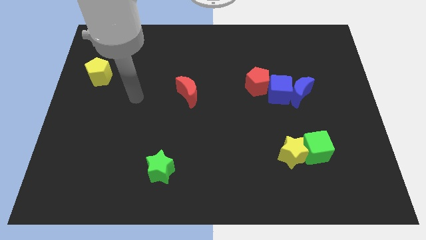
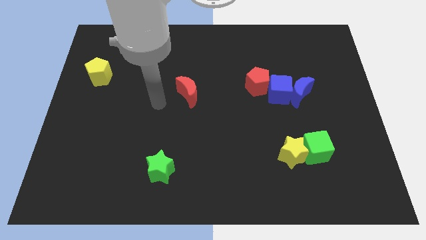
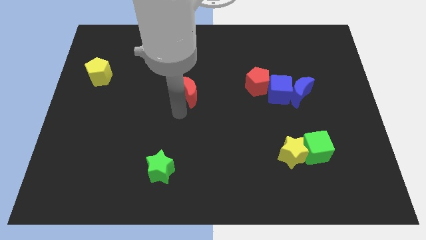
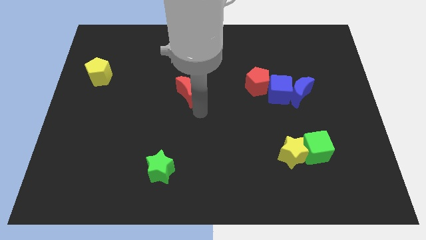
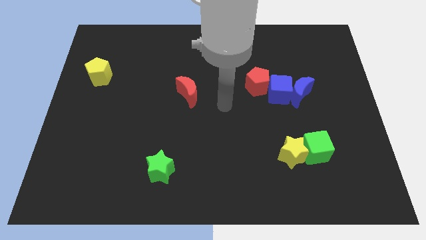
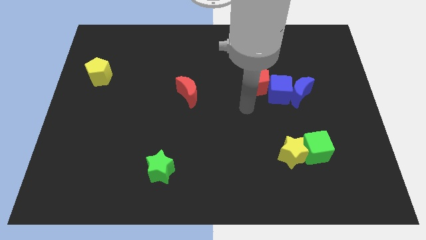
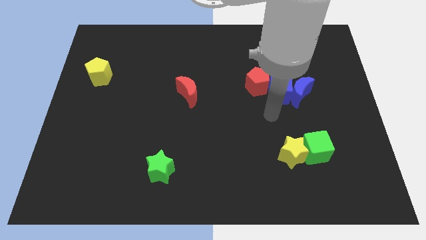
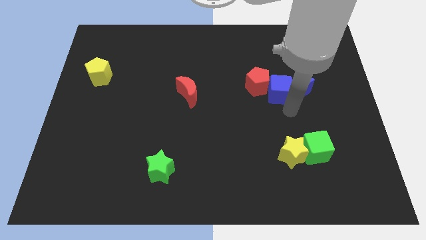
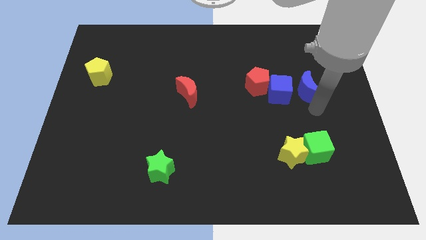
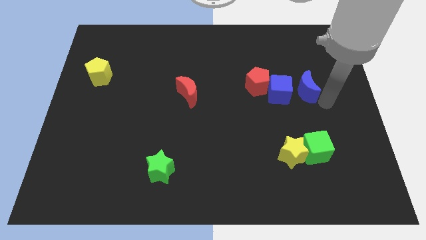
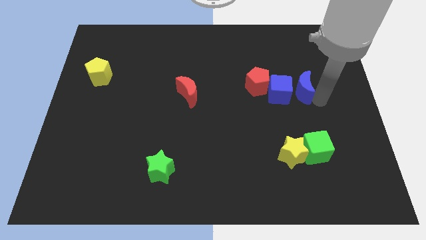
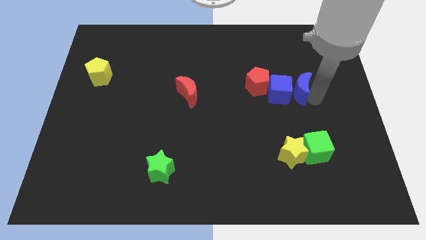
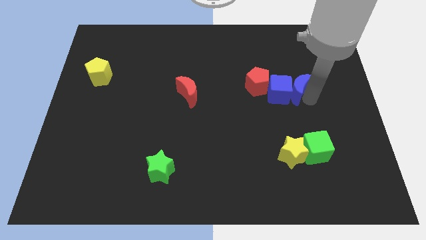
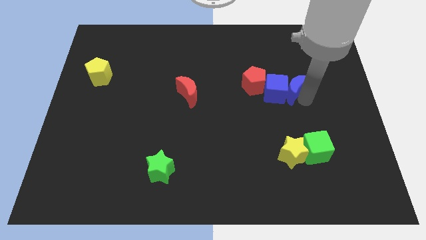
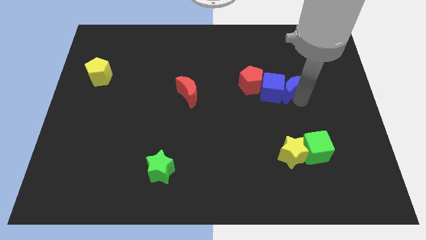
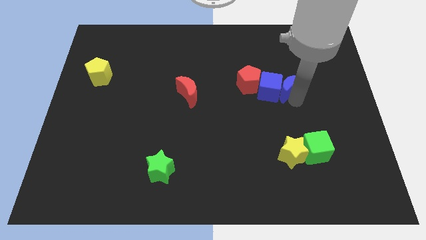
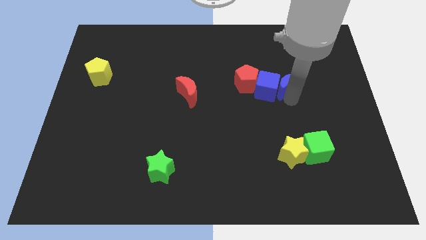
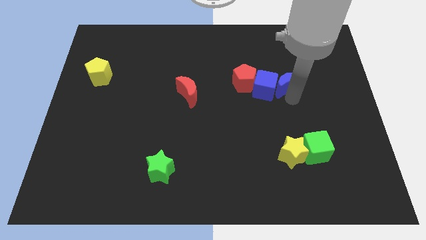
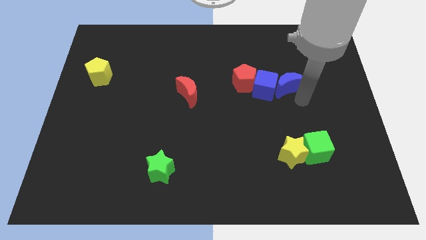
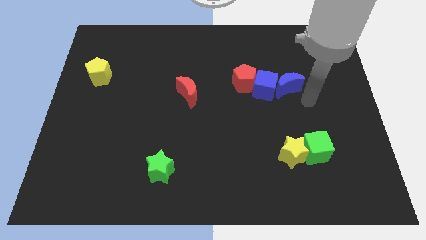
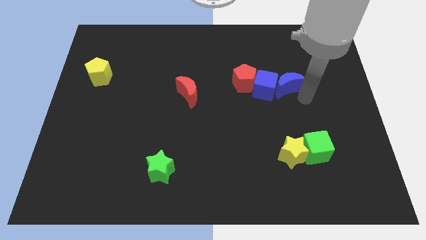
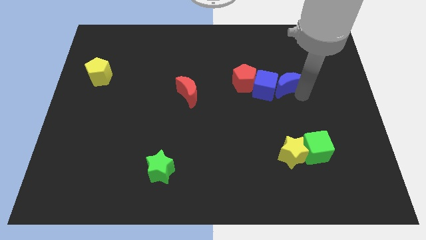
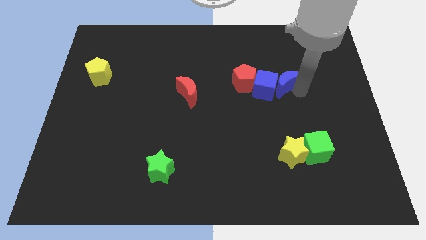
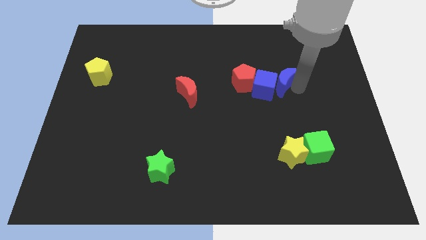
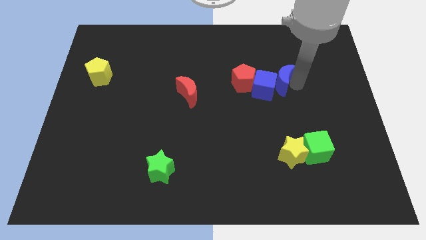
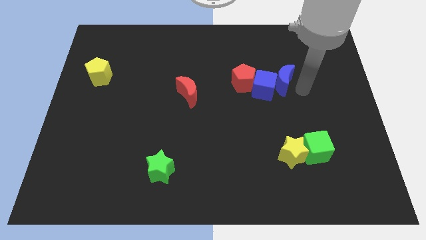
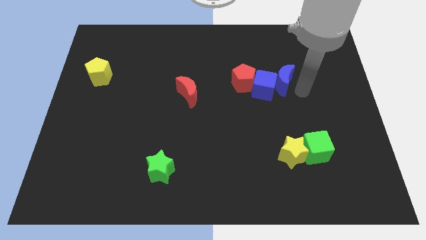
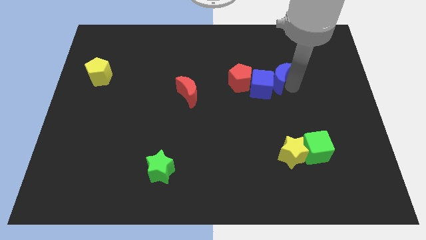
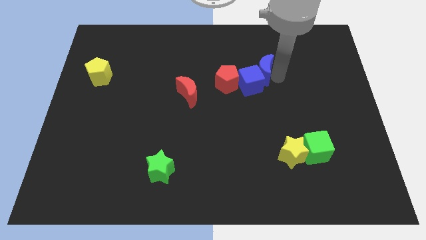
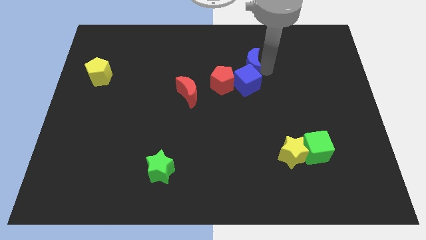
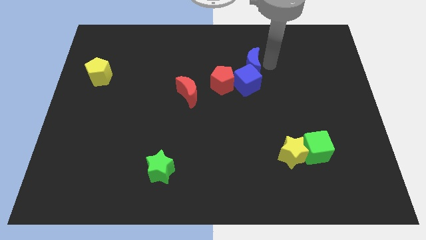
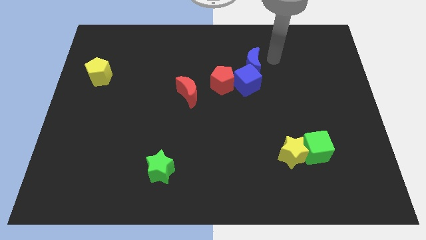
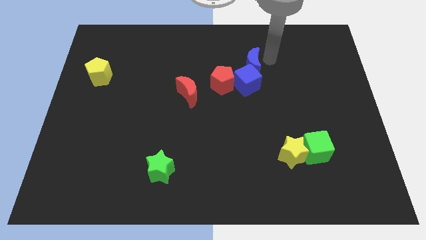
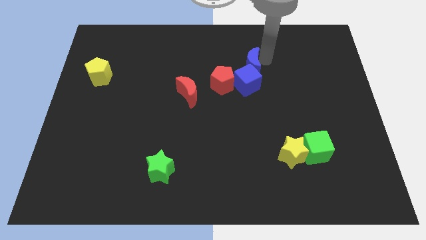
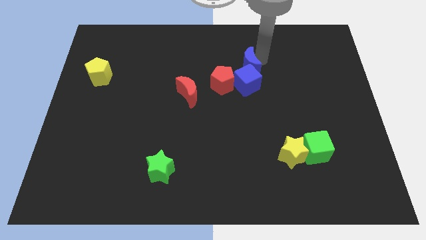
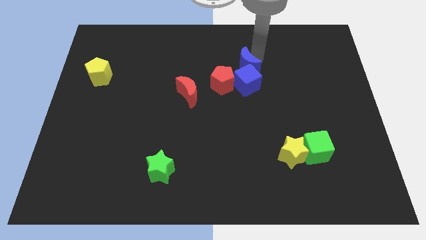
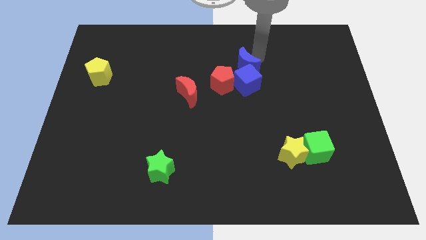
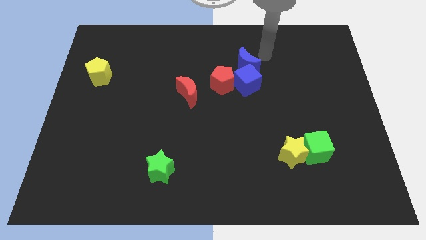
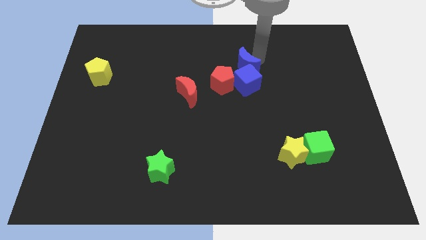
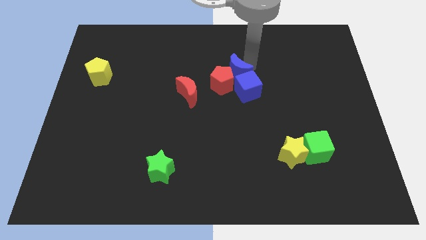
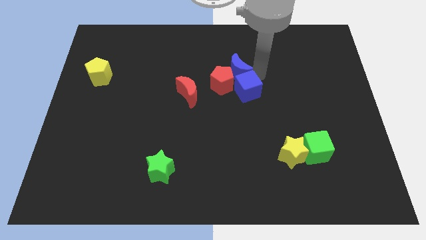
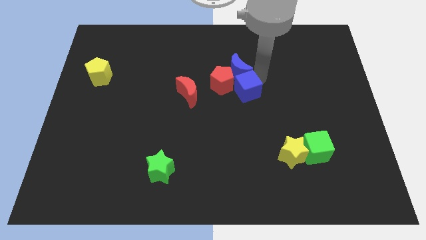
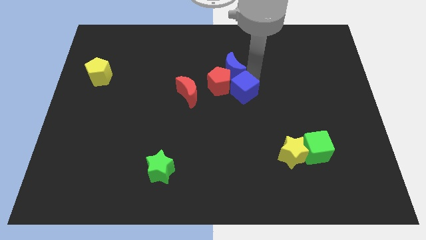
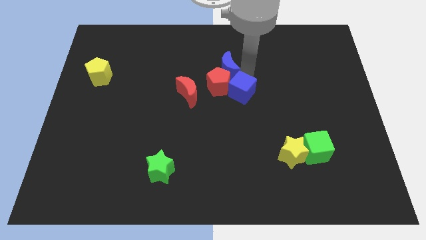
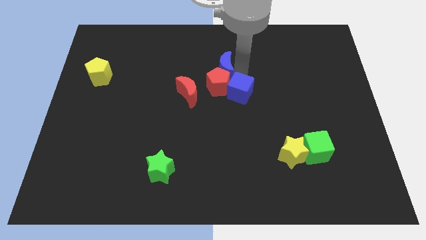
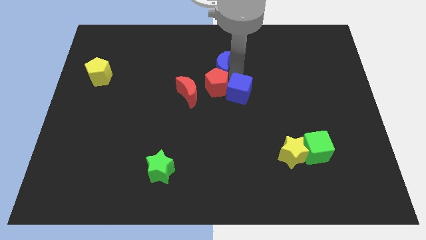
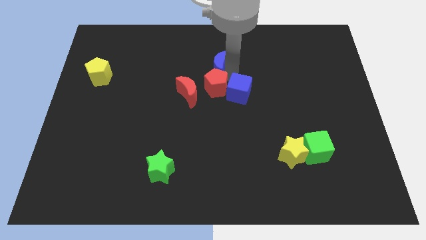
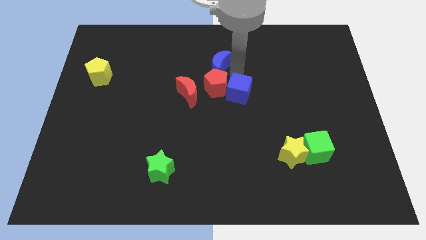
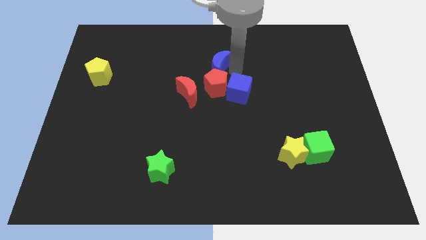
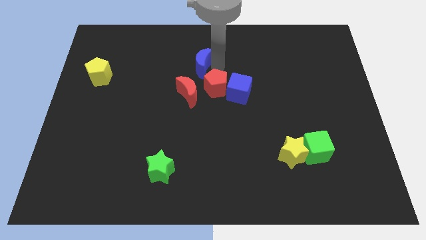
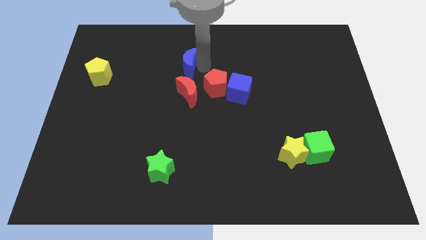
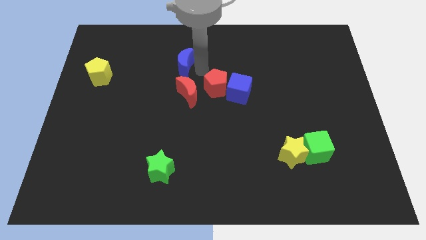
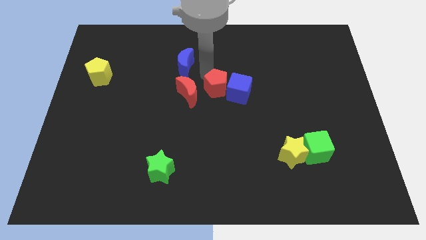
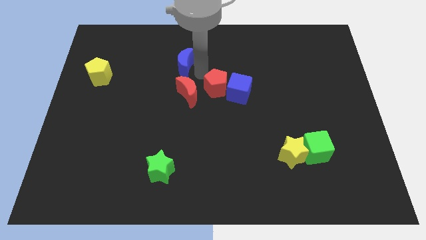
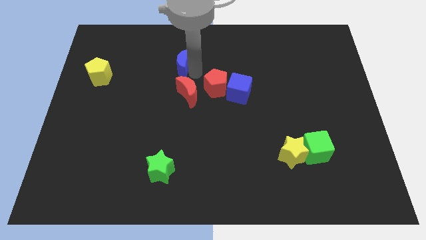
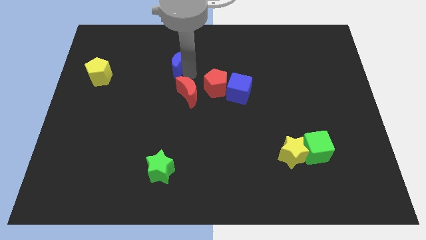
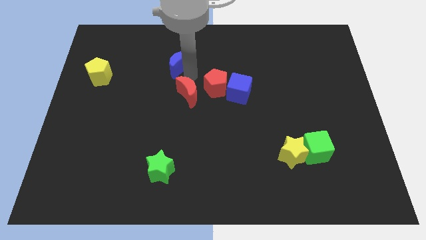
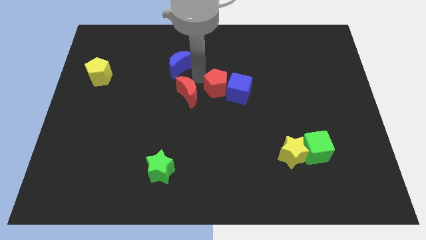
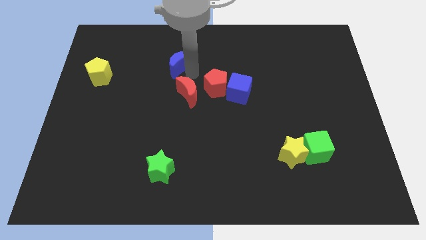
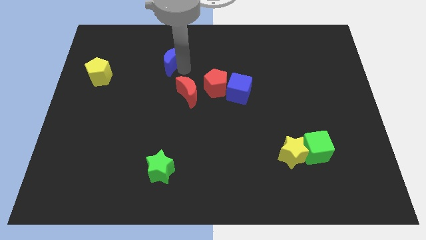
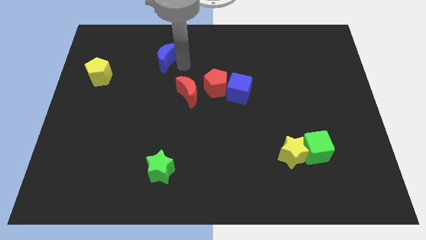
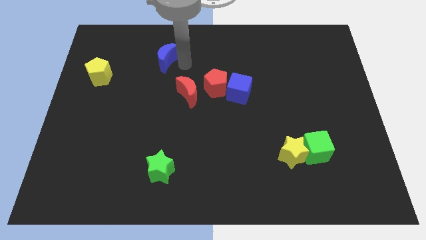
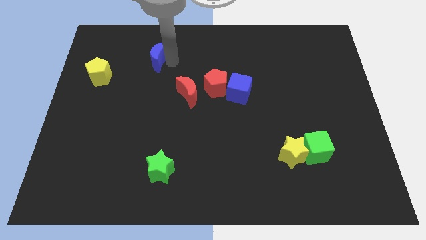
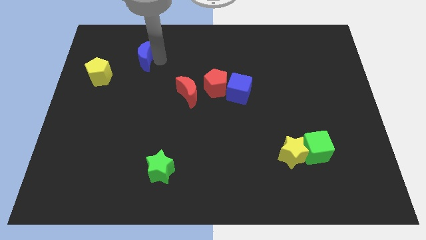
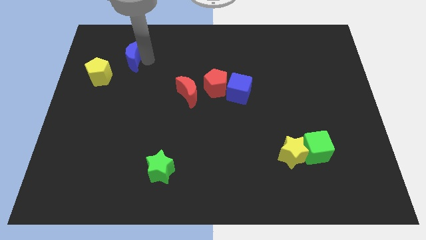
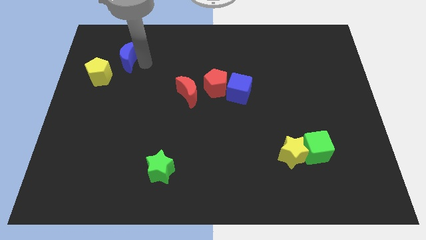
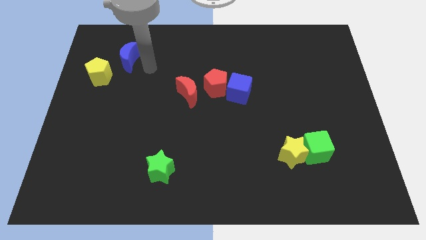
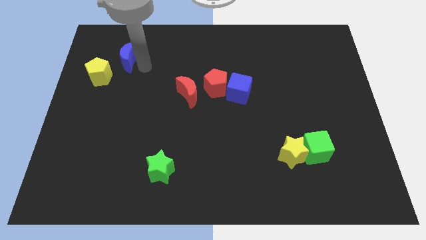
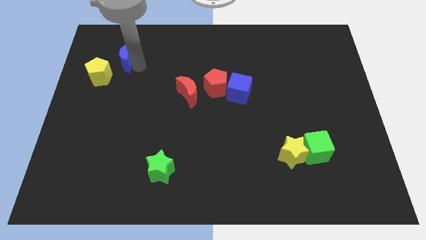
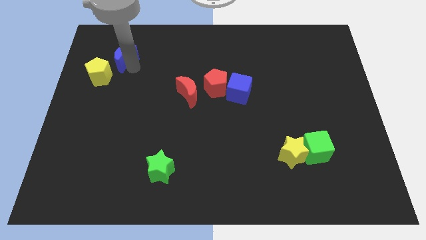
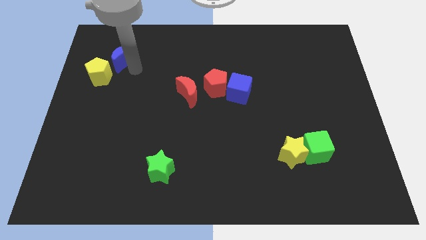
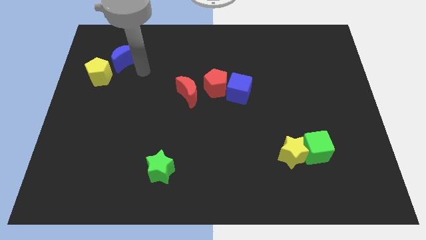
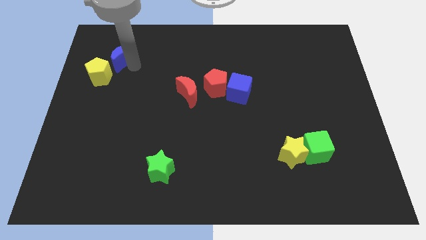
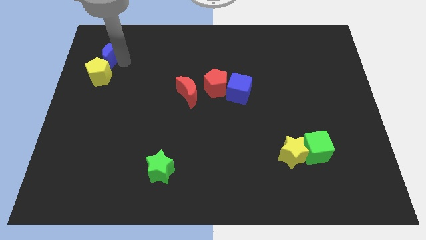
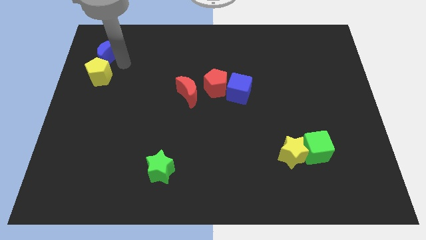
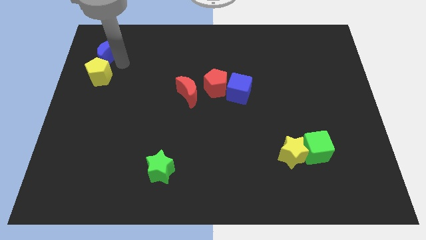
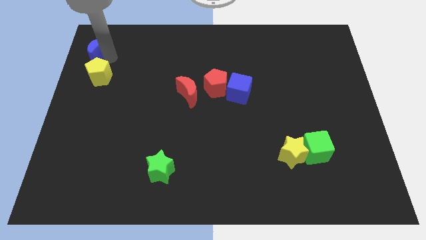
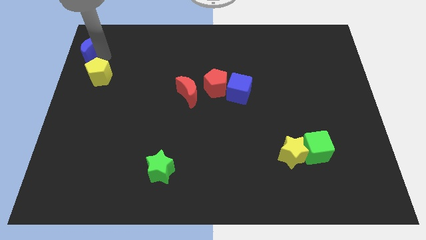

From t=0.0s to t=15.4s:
put the blue moon to the top left corner
